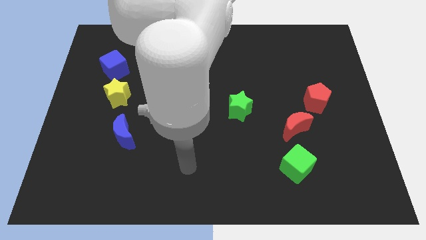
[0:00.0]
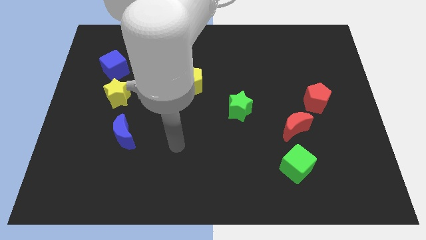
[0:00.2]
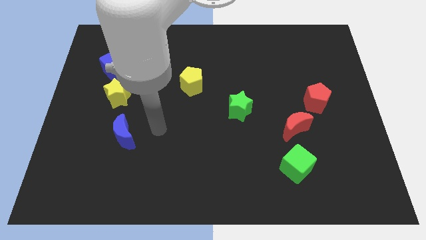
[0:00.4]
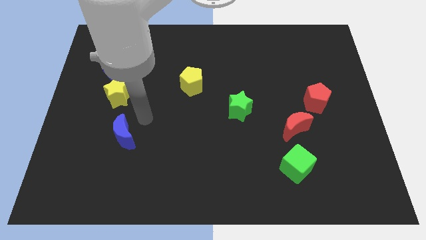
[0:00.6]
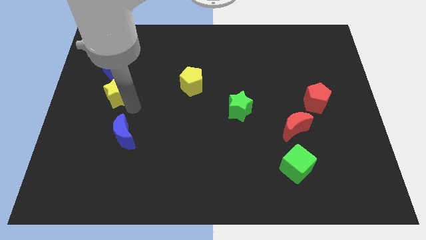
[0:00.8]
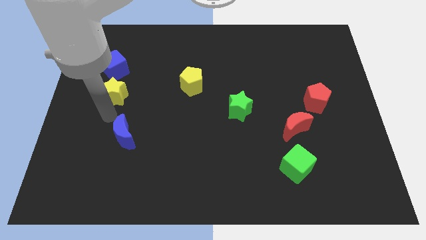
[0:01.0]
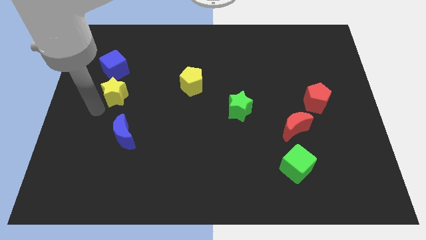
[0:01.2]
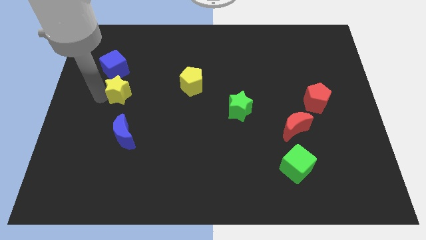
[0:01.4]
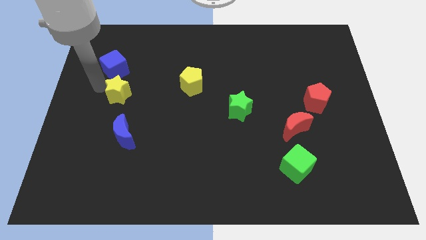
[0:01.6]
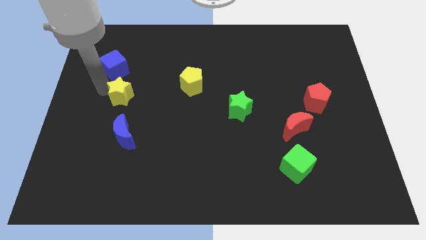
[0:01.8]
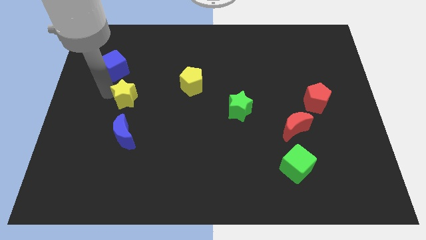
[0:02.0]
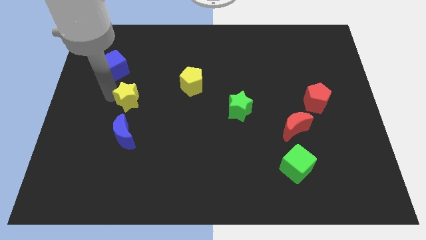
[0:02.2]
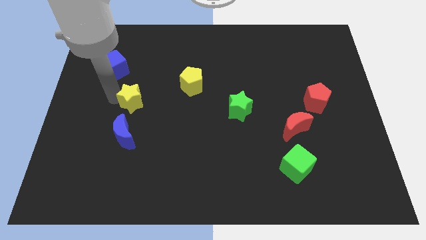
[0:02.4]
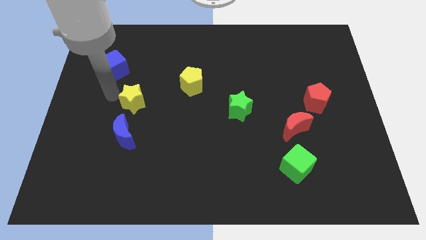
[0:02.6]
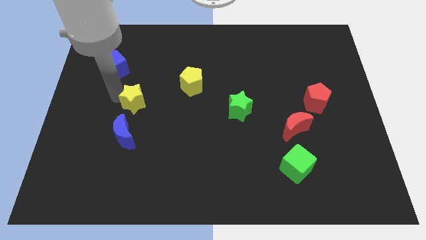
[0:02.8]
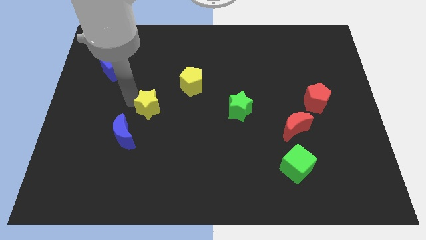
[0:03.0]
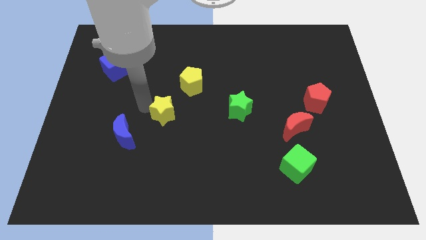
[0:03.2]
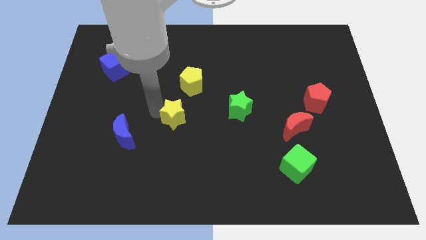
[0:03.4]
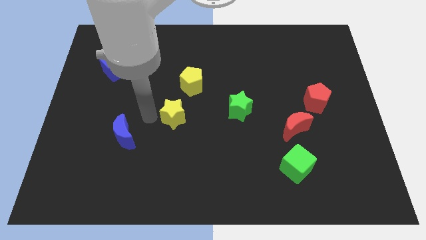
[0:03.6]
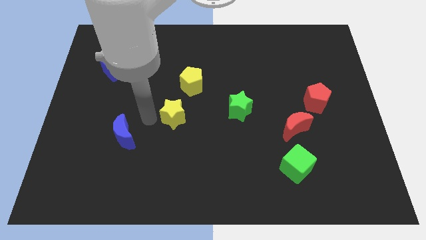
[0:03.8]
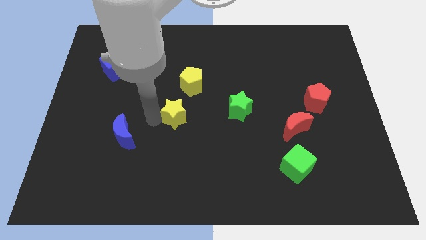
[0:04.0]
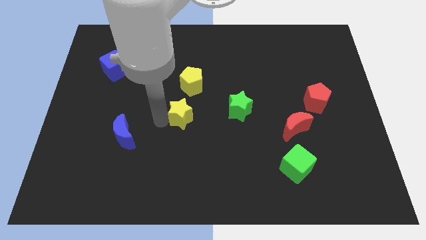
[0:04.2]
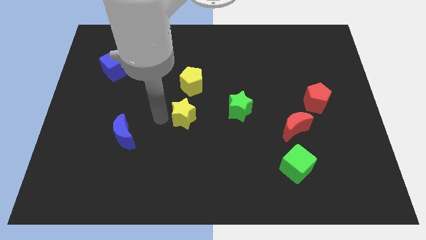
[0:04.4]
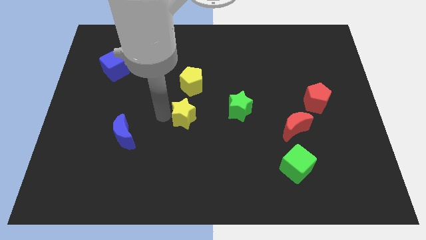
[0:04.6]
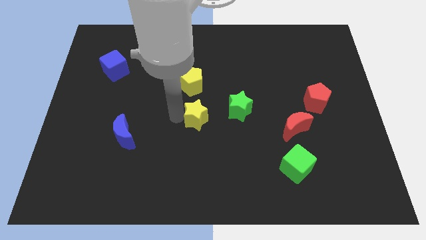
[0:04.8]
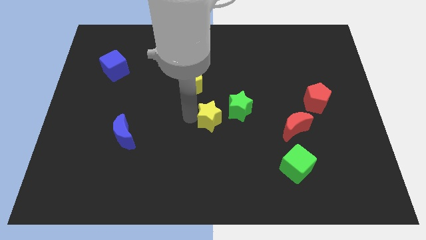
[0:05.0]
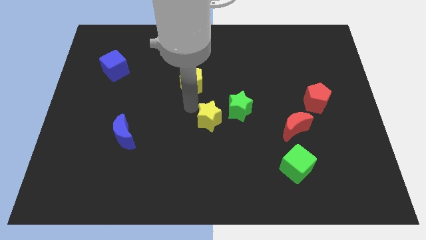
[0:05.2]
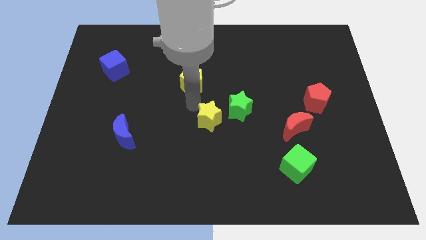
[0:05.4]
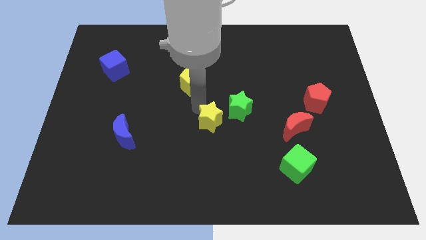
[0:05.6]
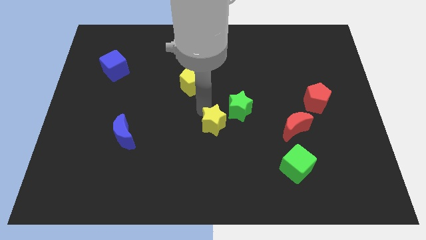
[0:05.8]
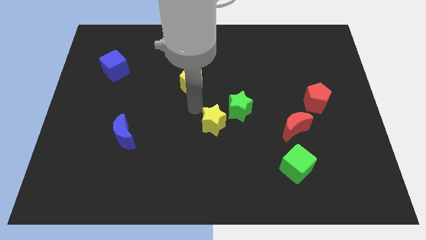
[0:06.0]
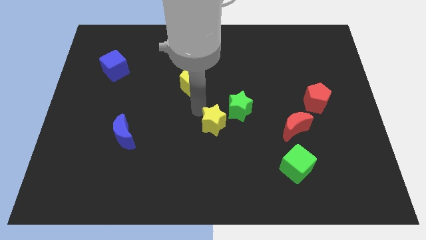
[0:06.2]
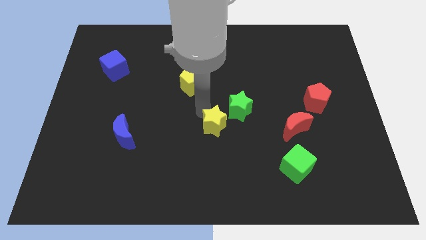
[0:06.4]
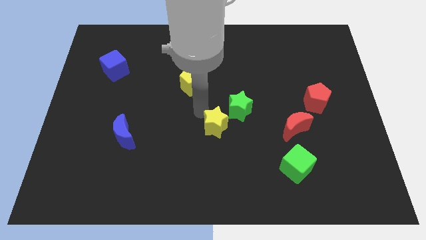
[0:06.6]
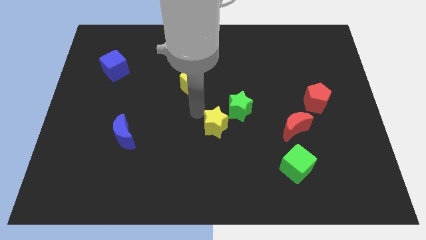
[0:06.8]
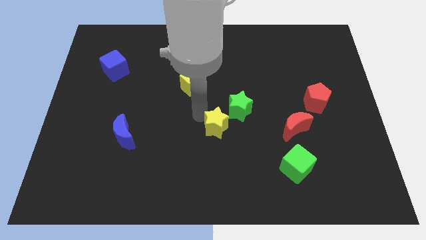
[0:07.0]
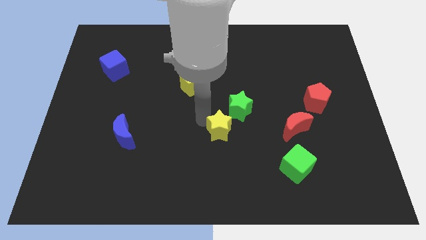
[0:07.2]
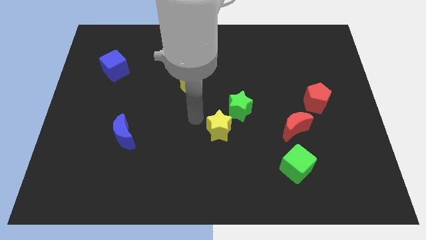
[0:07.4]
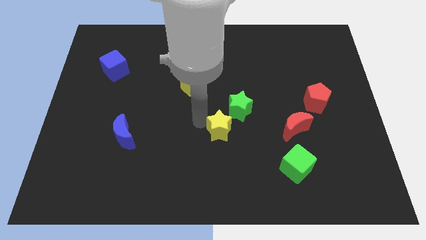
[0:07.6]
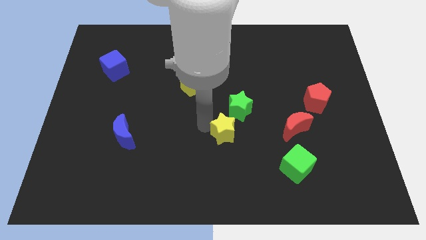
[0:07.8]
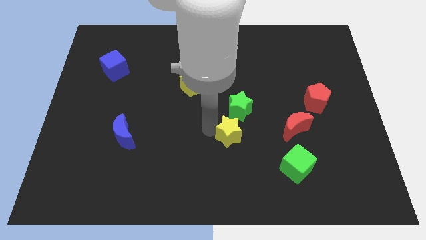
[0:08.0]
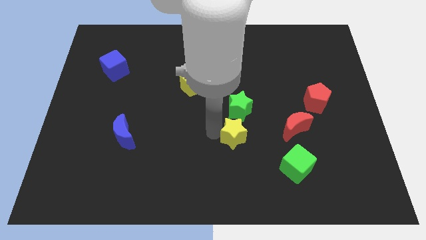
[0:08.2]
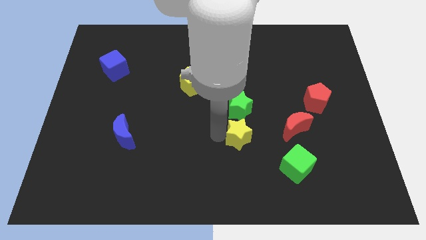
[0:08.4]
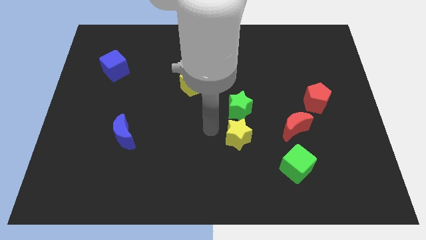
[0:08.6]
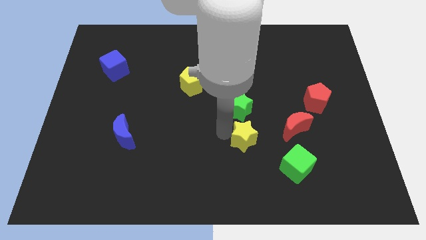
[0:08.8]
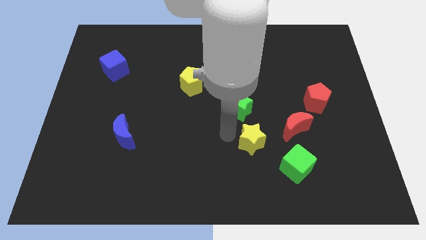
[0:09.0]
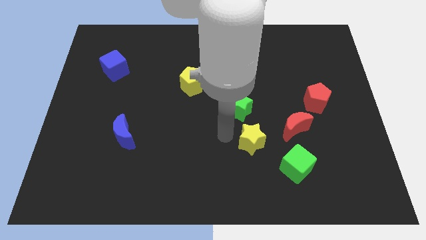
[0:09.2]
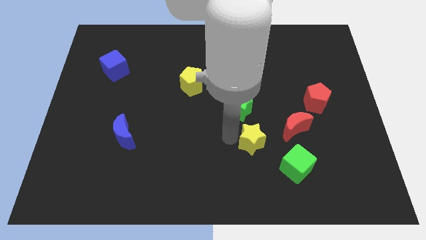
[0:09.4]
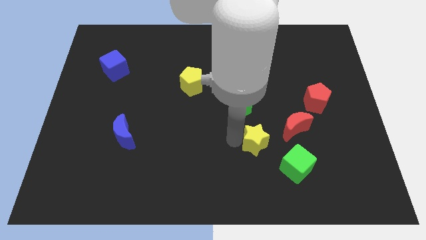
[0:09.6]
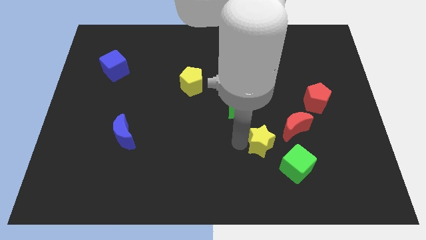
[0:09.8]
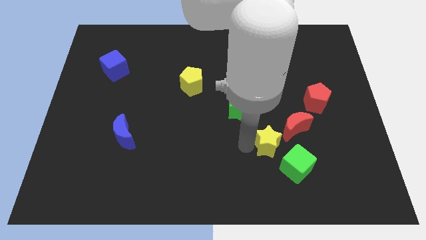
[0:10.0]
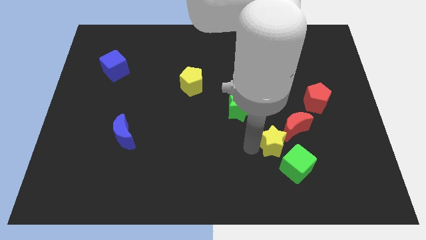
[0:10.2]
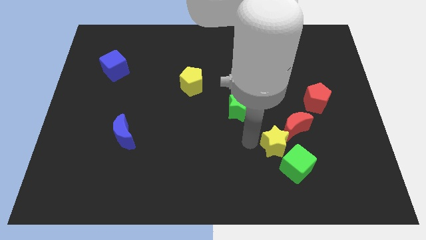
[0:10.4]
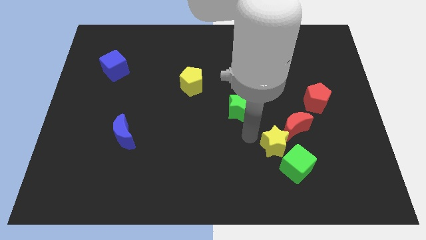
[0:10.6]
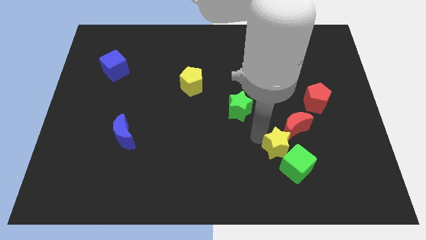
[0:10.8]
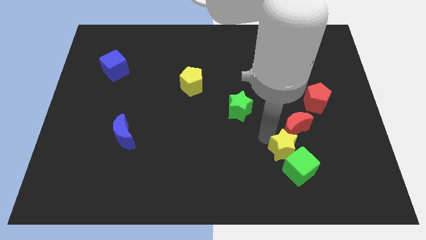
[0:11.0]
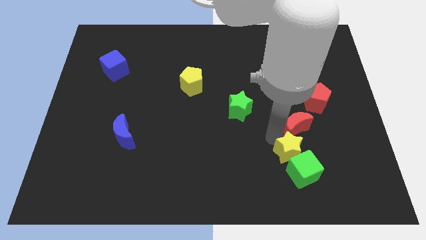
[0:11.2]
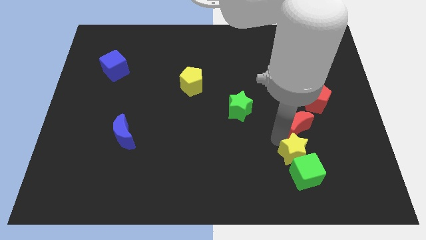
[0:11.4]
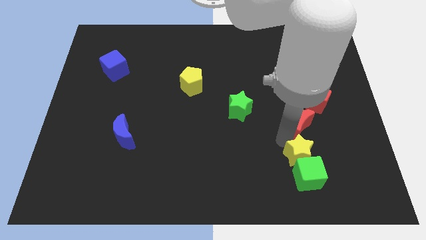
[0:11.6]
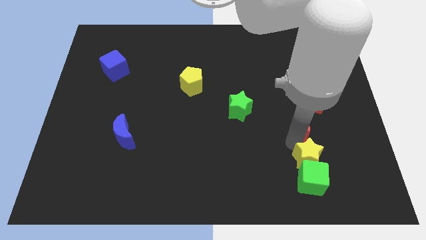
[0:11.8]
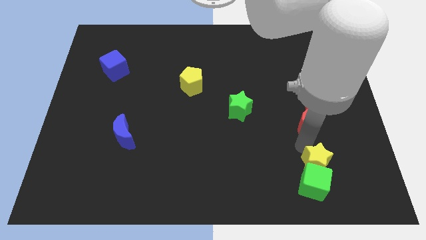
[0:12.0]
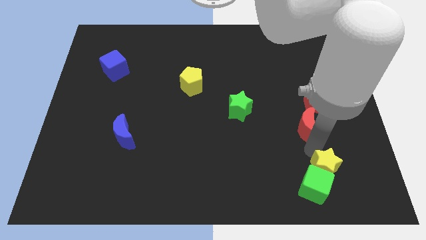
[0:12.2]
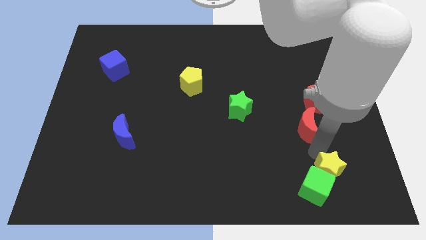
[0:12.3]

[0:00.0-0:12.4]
put the yellow star right of the green cube

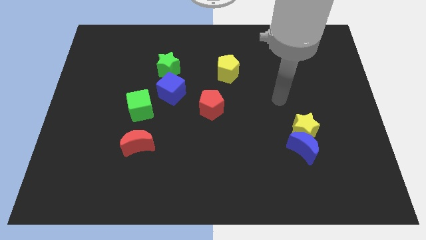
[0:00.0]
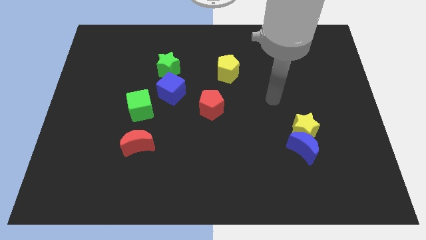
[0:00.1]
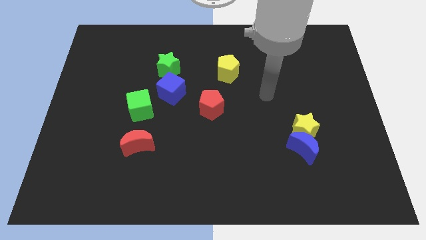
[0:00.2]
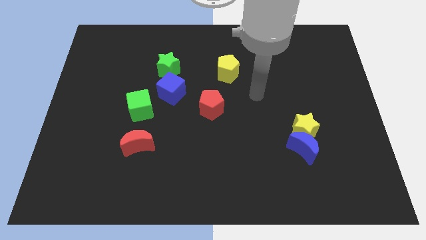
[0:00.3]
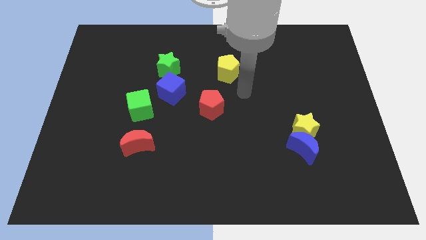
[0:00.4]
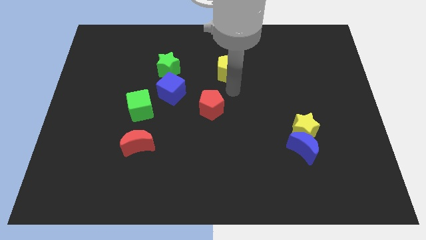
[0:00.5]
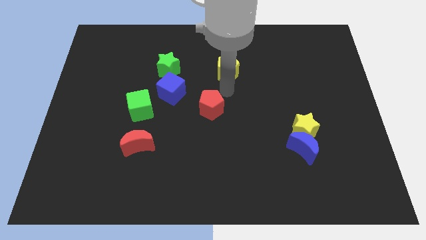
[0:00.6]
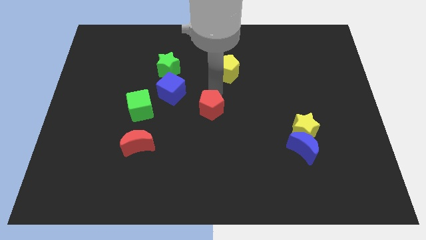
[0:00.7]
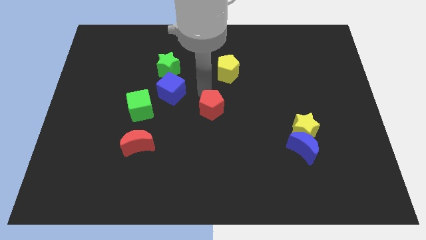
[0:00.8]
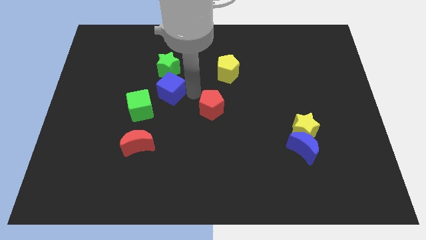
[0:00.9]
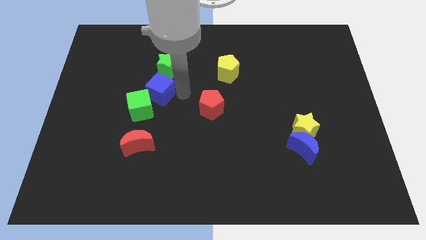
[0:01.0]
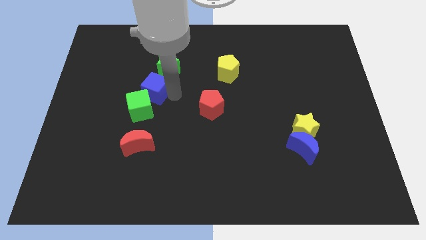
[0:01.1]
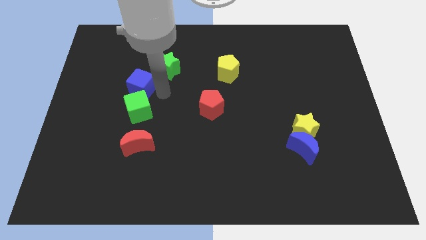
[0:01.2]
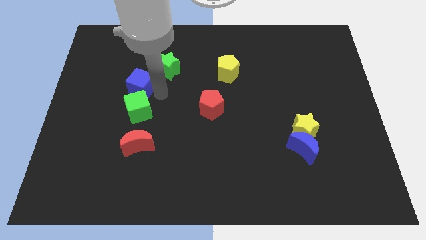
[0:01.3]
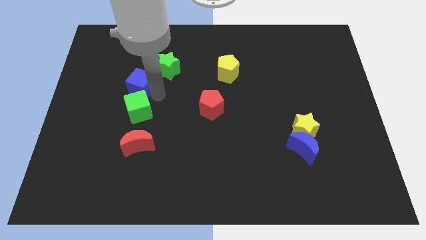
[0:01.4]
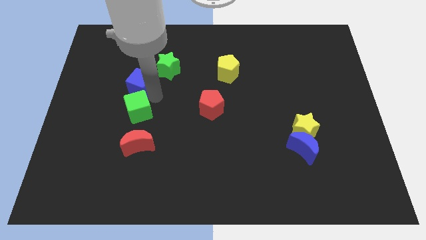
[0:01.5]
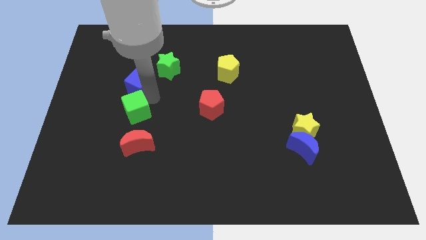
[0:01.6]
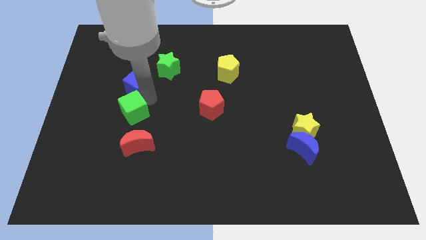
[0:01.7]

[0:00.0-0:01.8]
slide the green cube to the top left of the red moon
